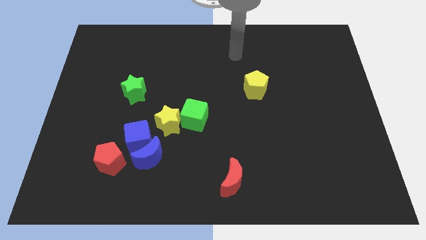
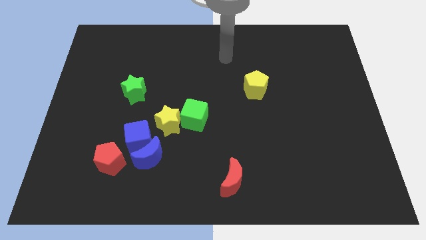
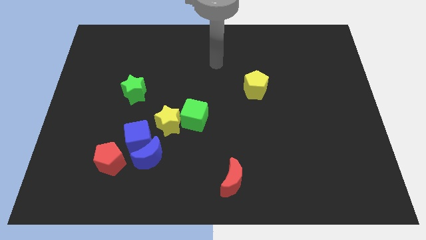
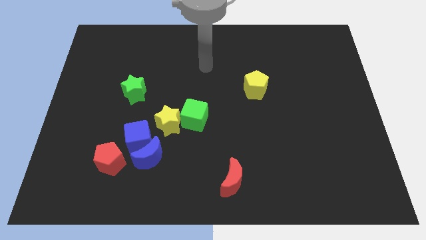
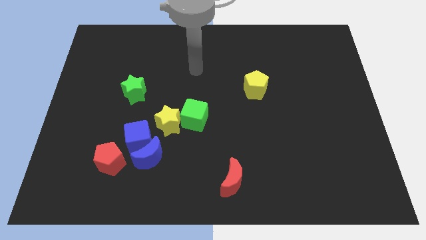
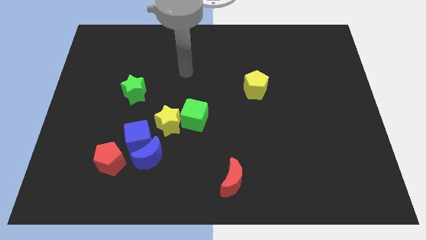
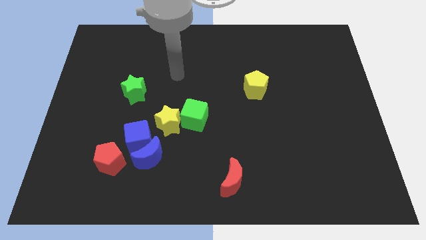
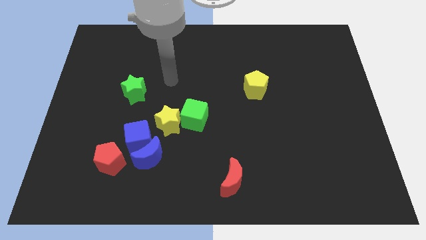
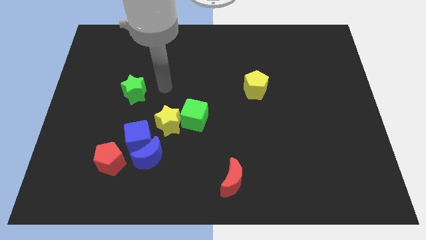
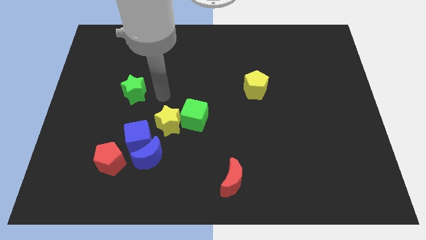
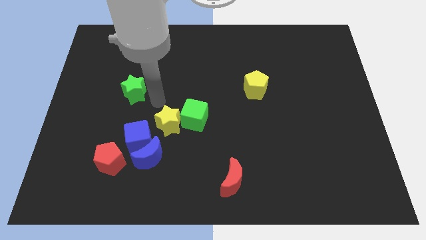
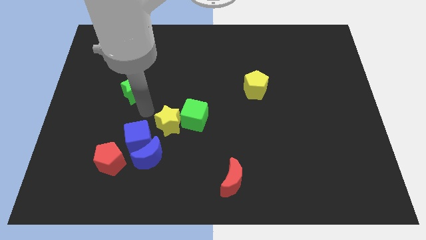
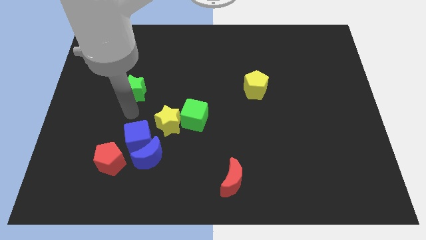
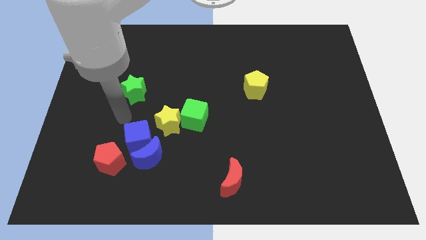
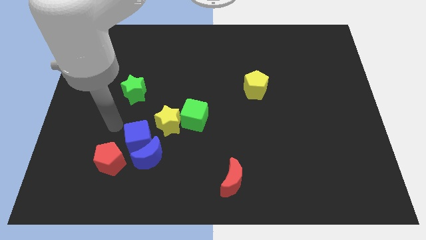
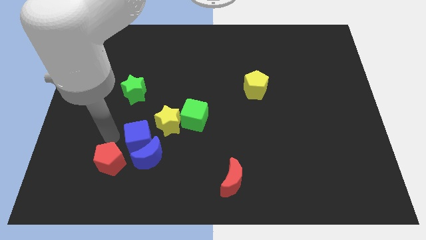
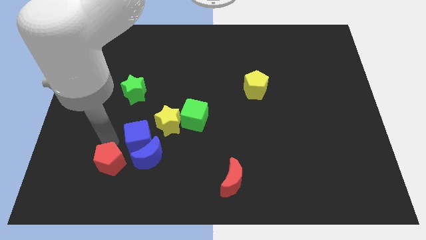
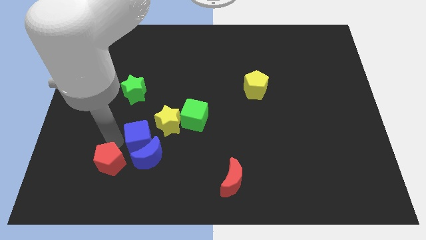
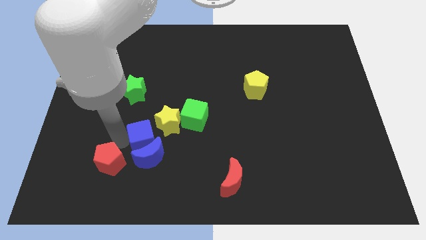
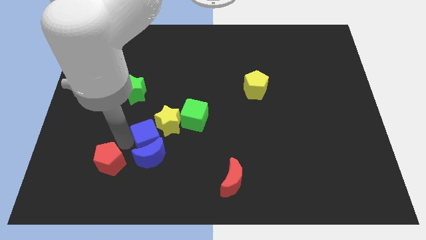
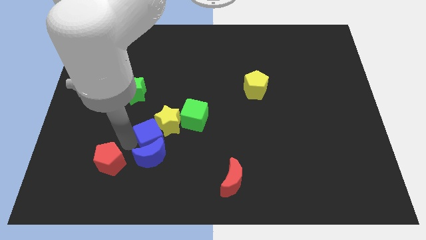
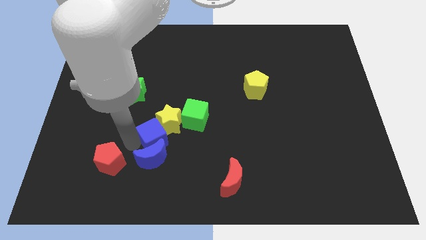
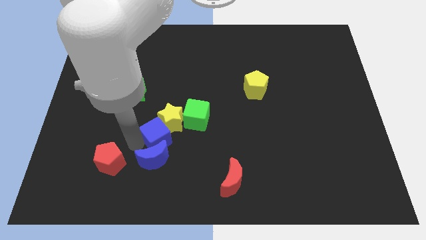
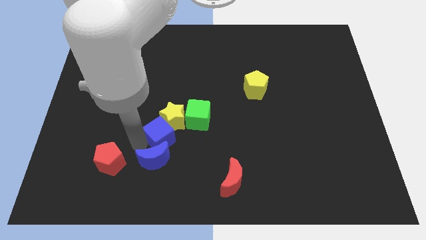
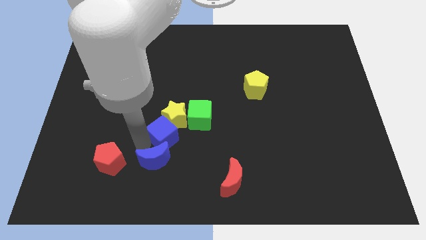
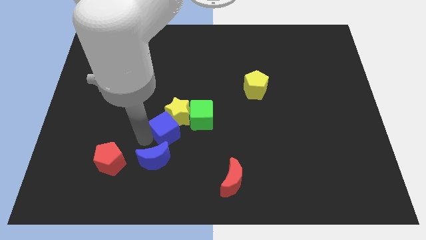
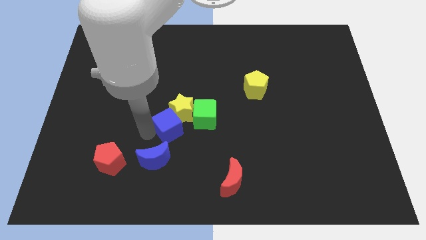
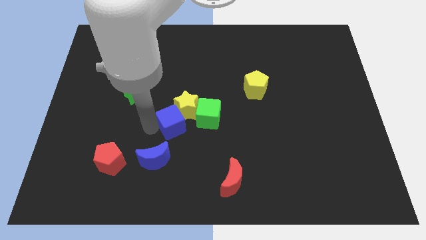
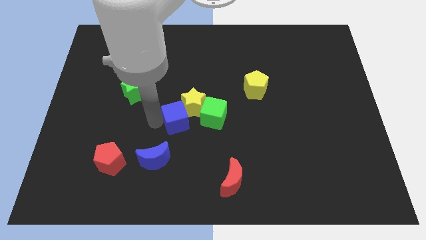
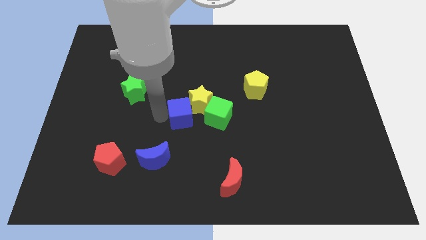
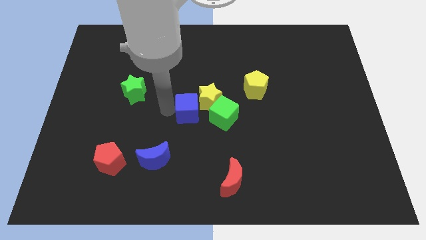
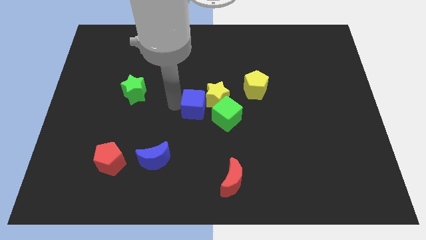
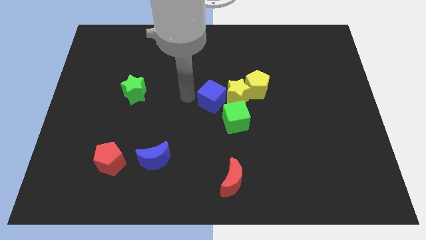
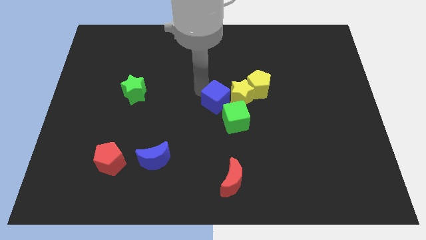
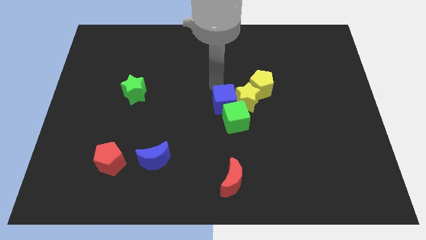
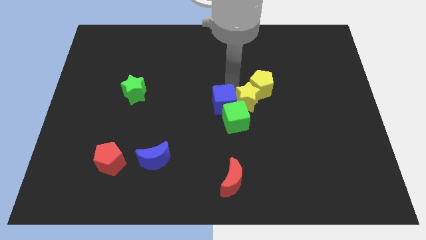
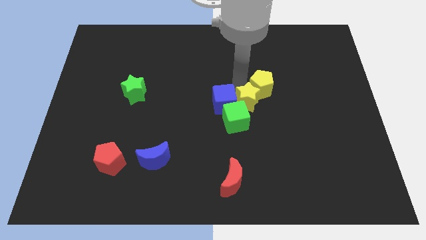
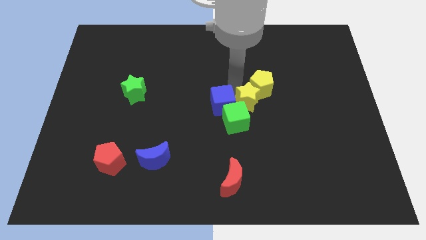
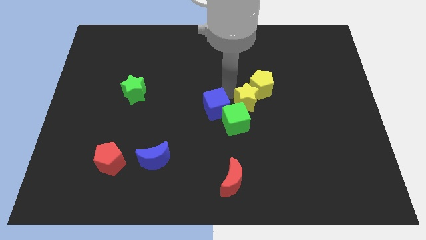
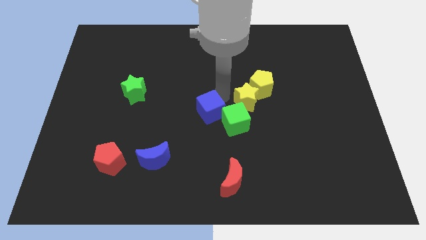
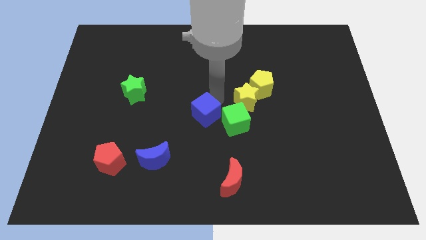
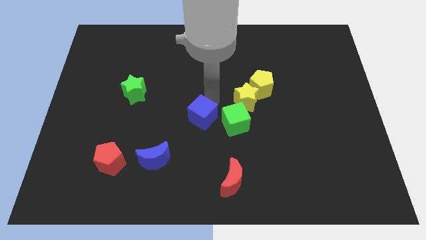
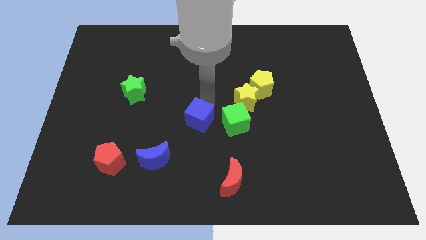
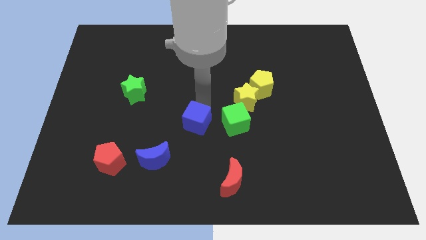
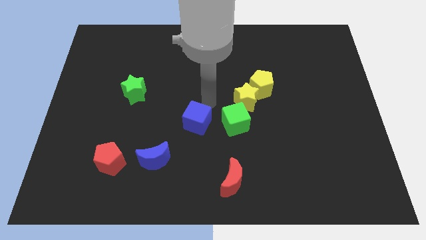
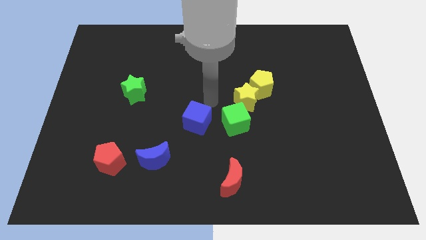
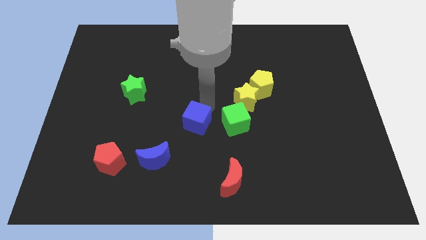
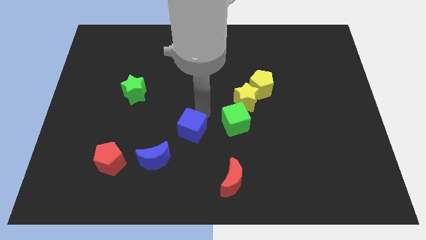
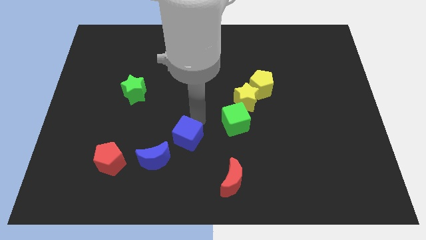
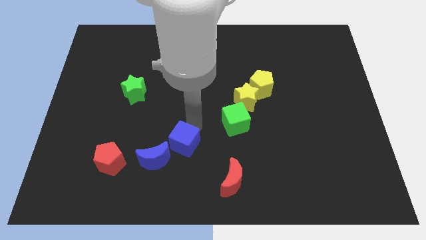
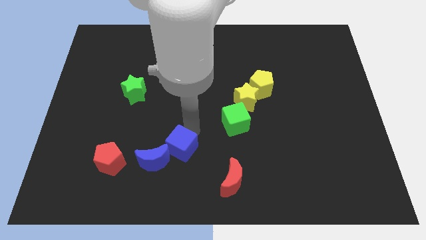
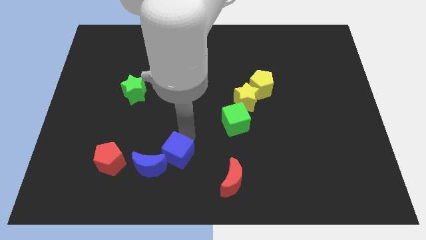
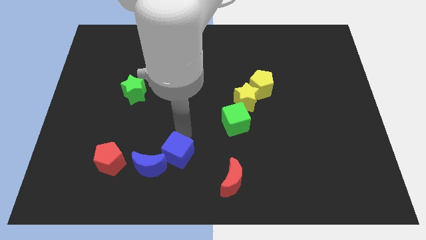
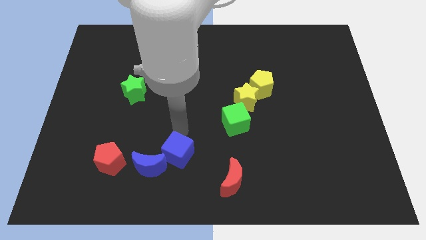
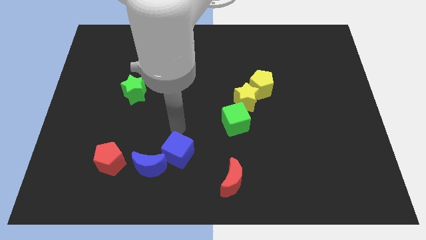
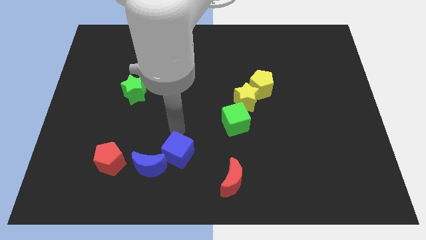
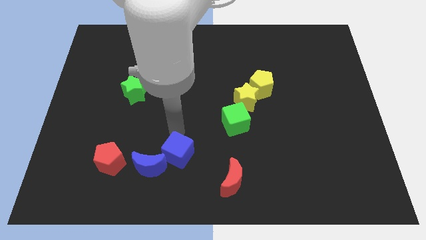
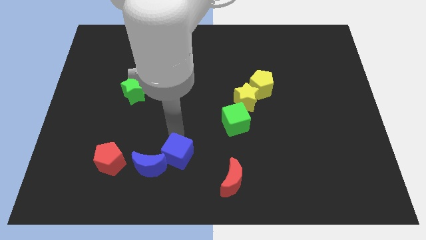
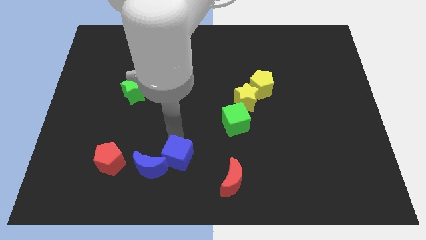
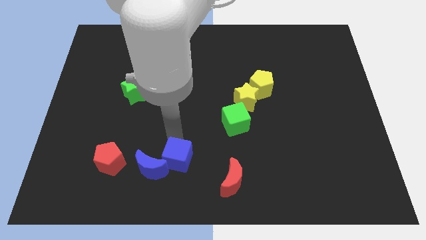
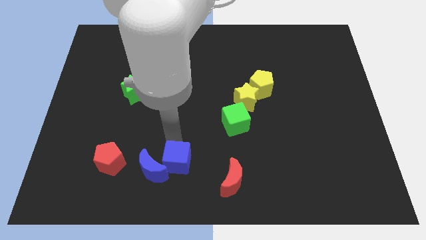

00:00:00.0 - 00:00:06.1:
slide the blue cube to the bottom
